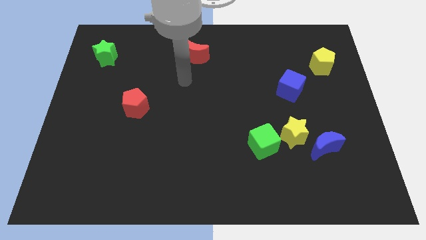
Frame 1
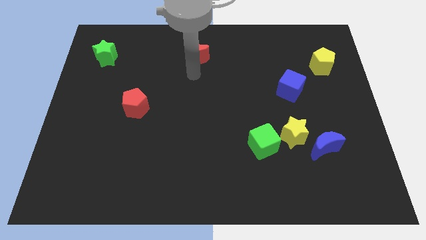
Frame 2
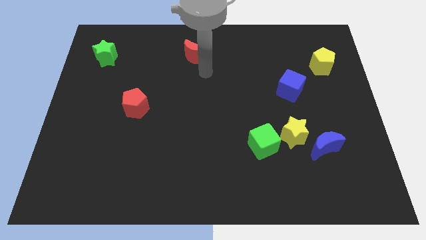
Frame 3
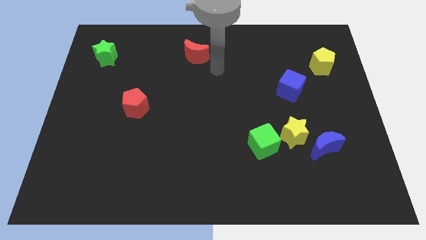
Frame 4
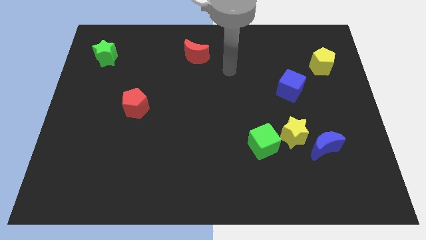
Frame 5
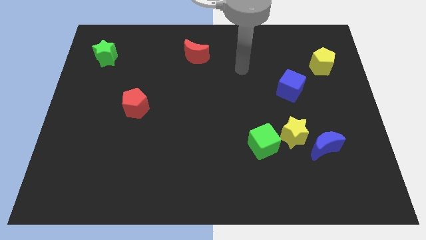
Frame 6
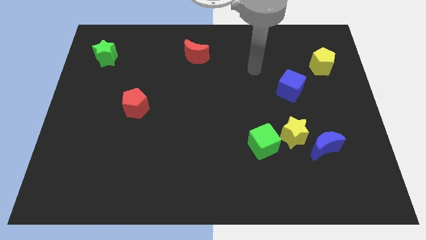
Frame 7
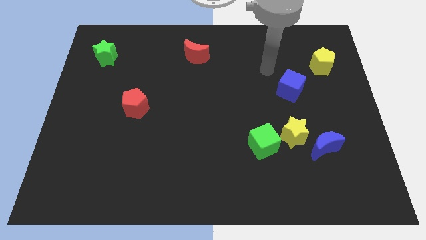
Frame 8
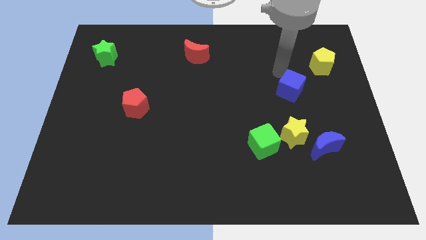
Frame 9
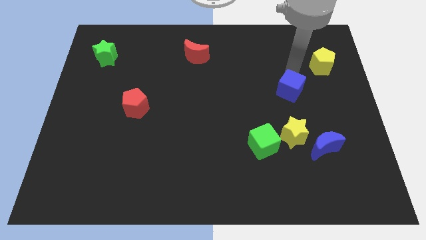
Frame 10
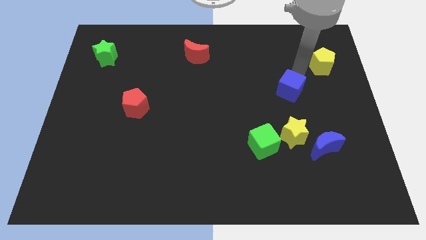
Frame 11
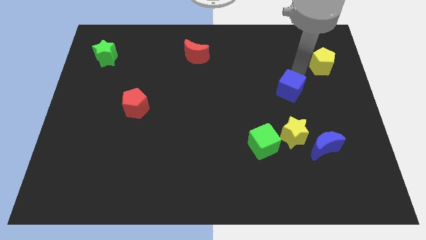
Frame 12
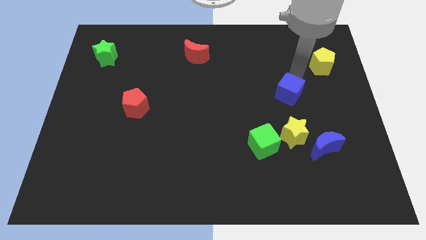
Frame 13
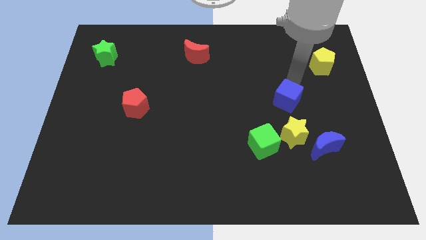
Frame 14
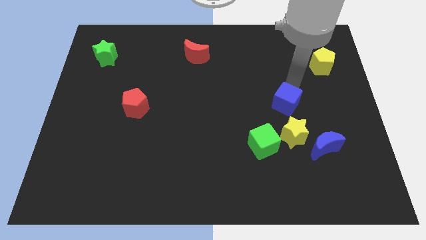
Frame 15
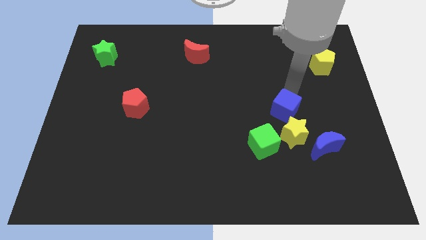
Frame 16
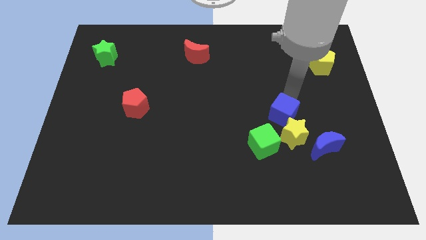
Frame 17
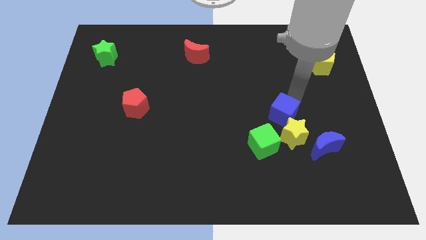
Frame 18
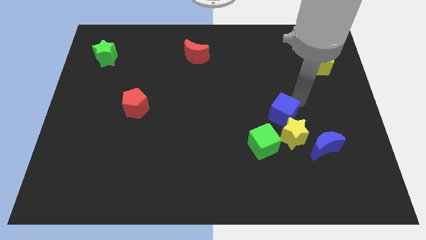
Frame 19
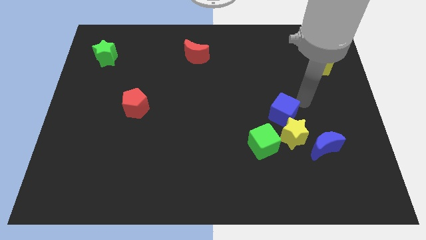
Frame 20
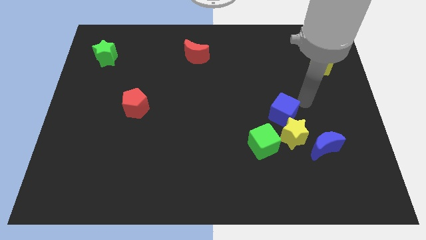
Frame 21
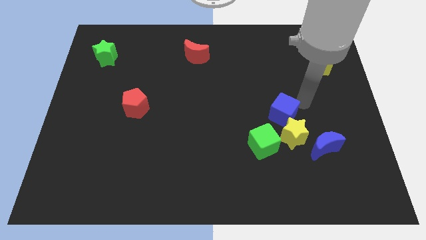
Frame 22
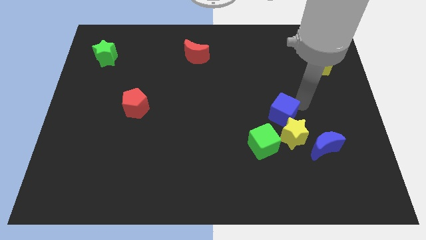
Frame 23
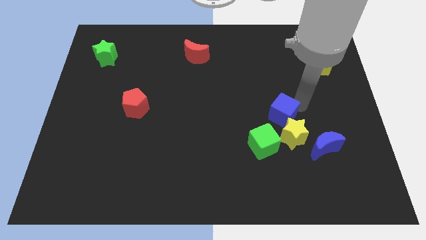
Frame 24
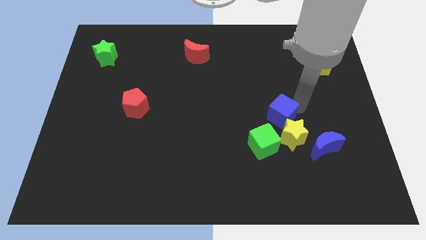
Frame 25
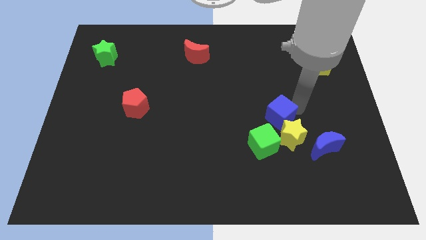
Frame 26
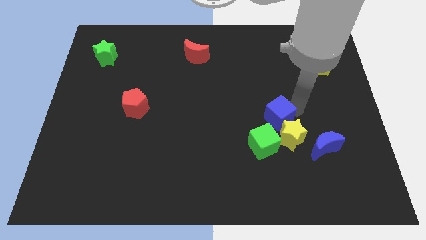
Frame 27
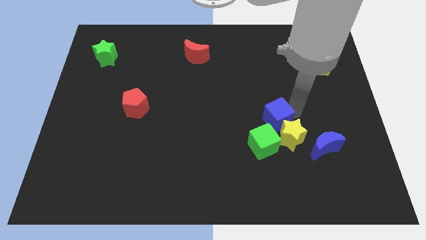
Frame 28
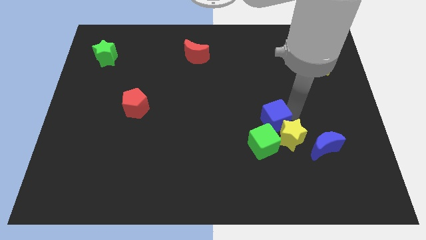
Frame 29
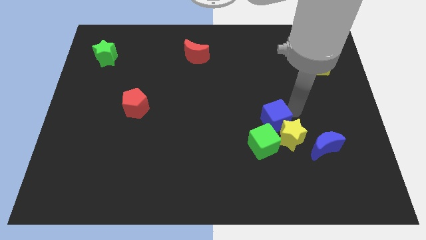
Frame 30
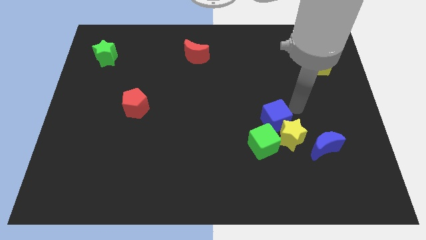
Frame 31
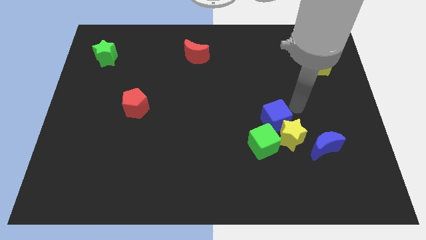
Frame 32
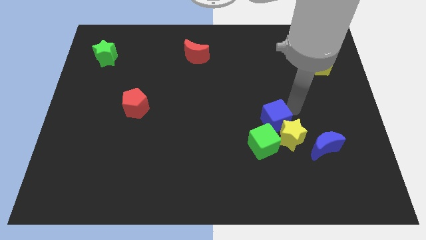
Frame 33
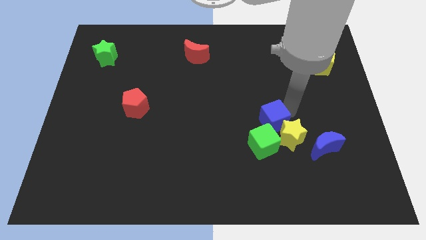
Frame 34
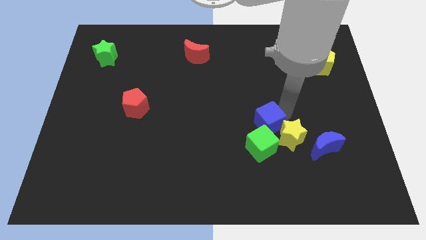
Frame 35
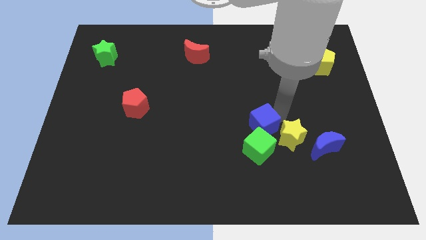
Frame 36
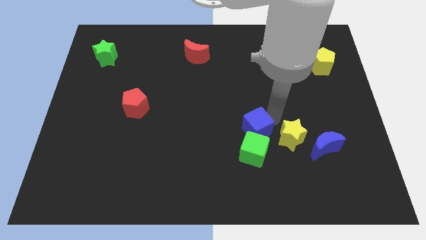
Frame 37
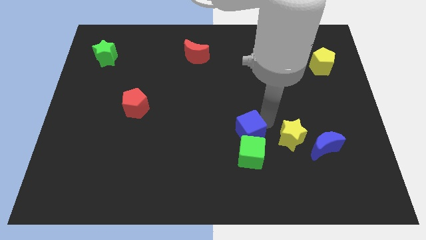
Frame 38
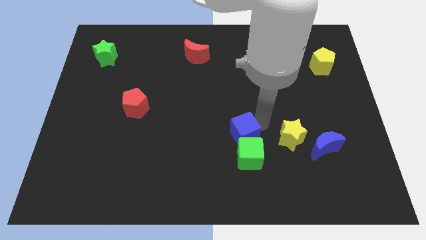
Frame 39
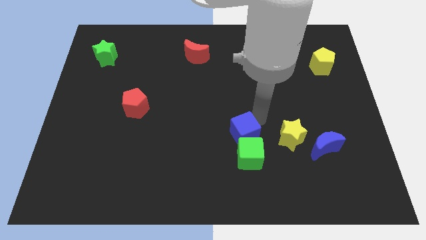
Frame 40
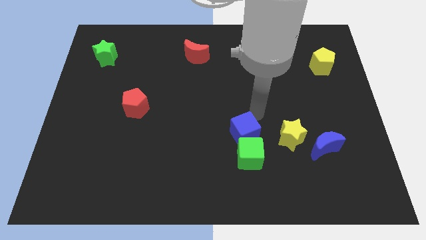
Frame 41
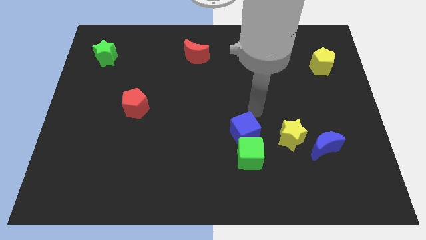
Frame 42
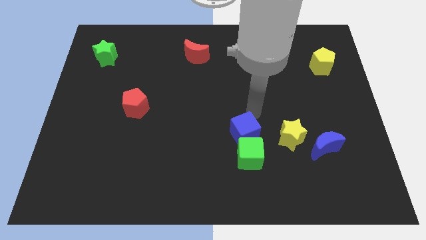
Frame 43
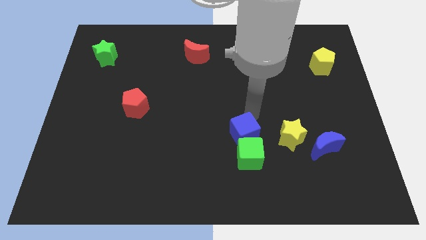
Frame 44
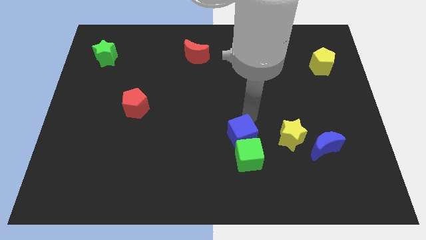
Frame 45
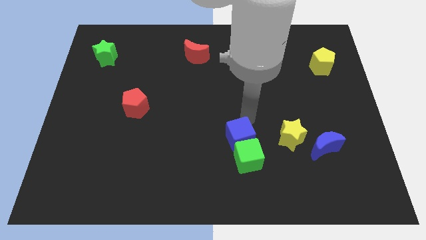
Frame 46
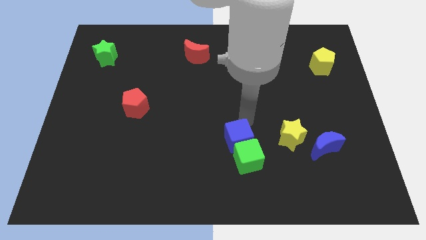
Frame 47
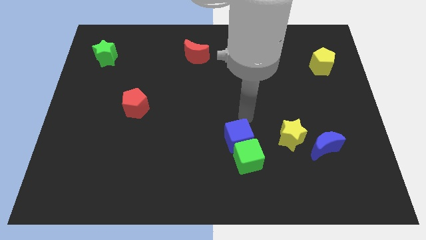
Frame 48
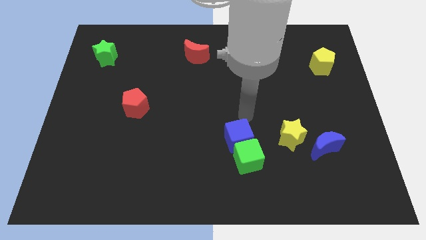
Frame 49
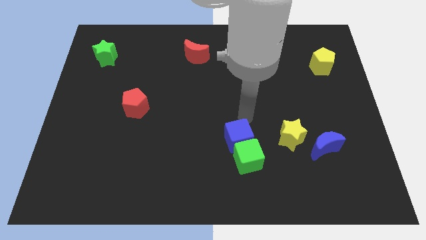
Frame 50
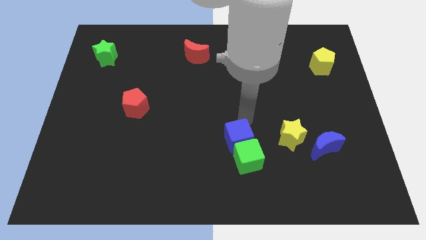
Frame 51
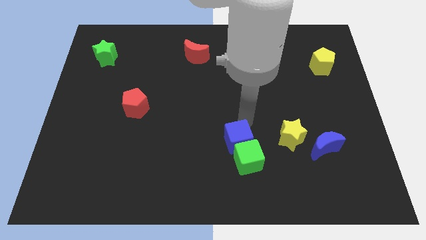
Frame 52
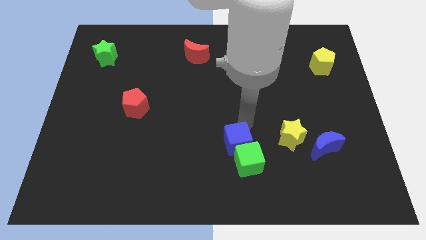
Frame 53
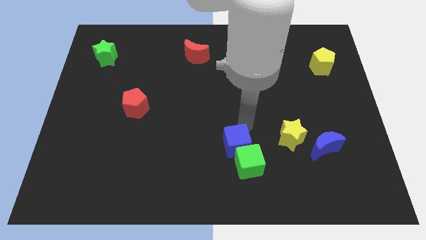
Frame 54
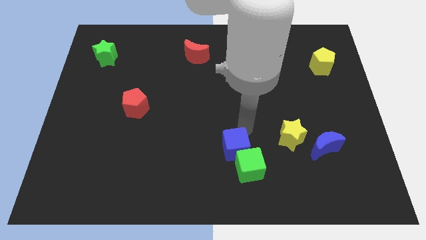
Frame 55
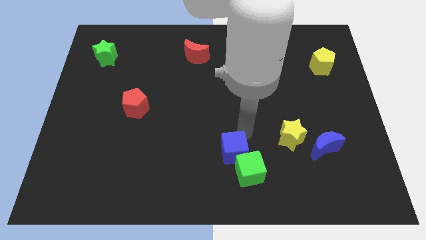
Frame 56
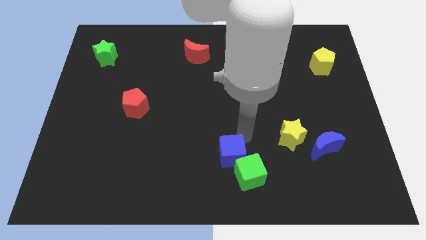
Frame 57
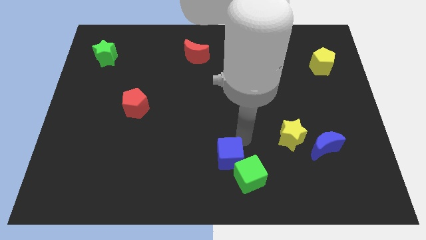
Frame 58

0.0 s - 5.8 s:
slide the blue cube to the bottom side

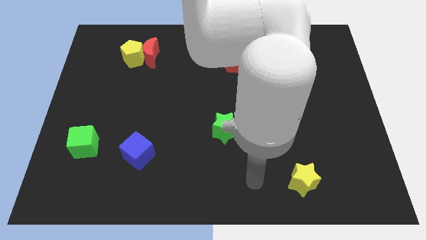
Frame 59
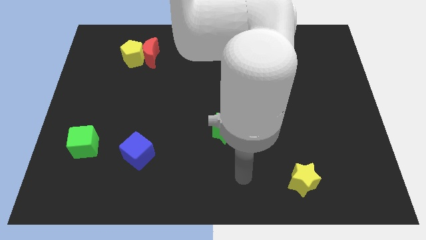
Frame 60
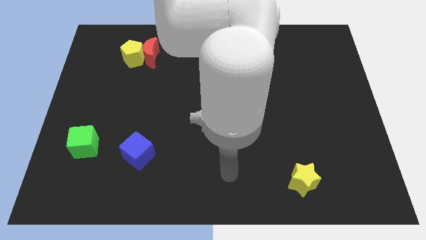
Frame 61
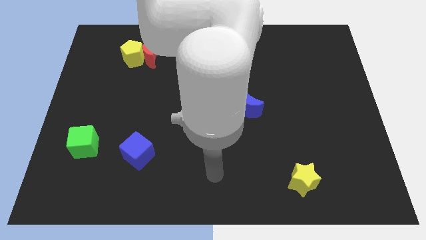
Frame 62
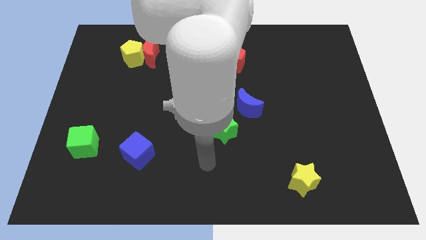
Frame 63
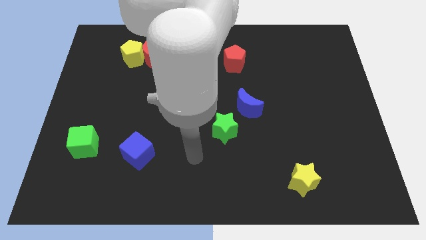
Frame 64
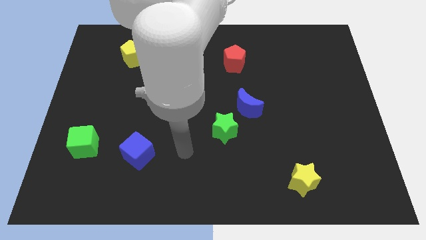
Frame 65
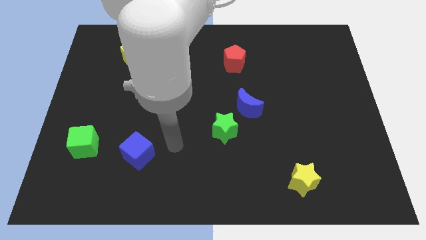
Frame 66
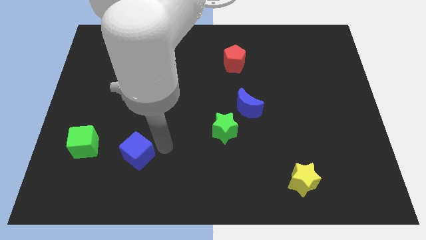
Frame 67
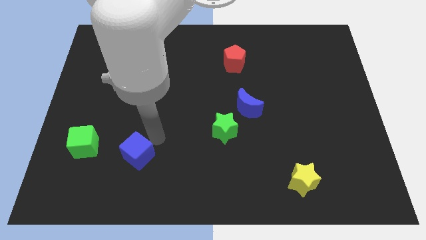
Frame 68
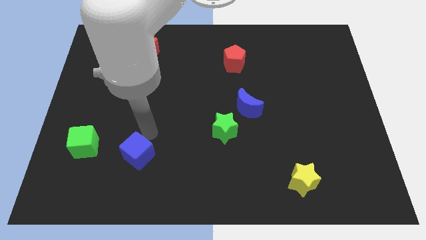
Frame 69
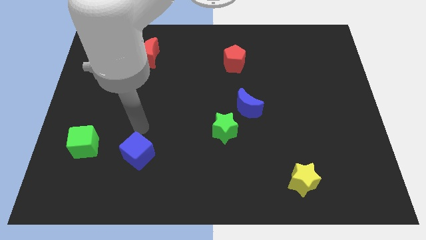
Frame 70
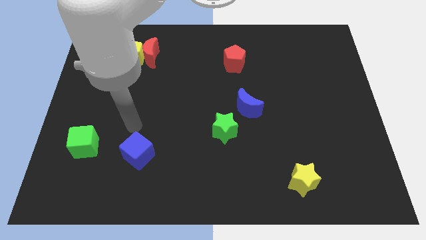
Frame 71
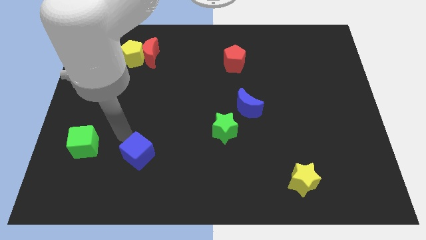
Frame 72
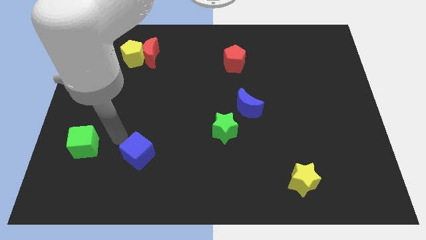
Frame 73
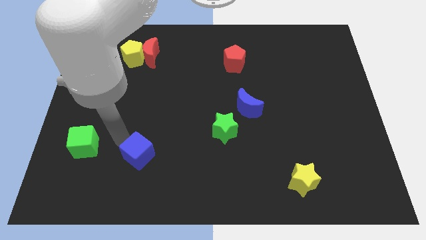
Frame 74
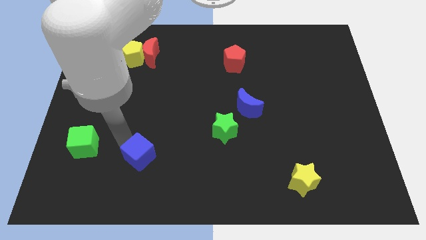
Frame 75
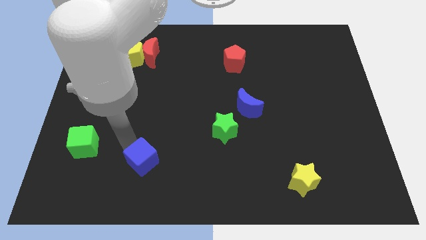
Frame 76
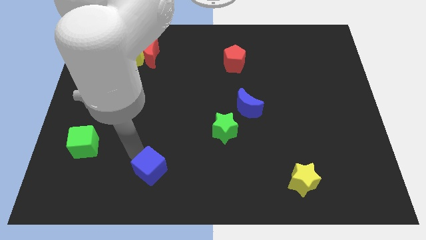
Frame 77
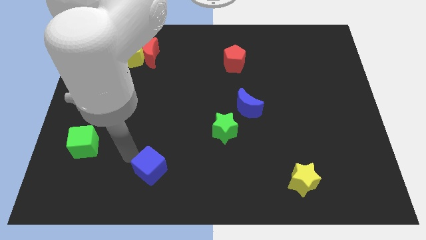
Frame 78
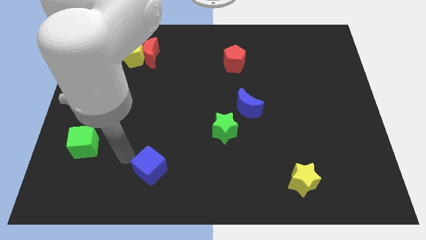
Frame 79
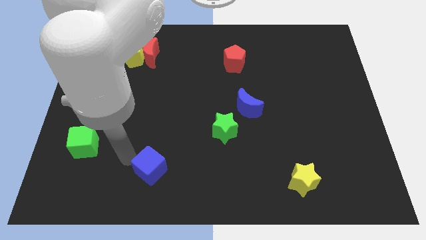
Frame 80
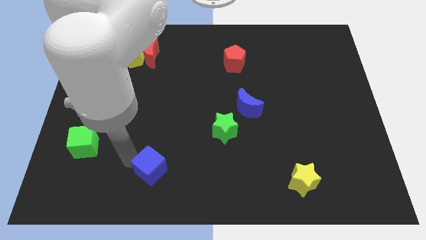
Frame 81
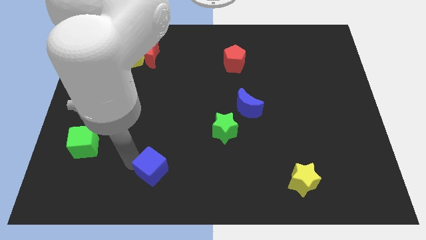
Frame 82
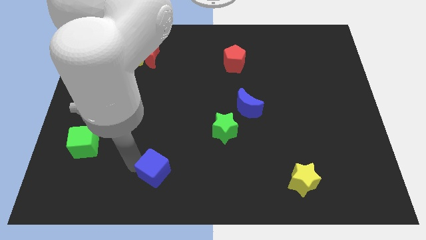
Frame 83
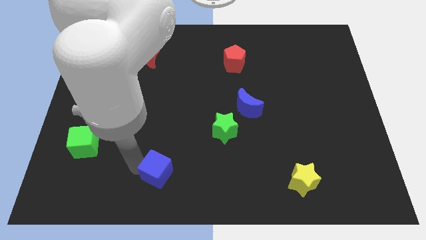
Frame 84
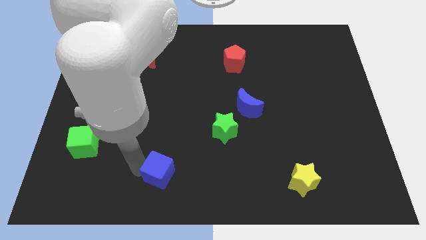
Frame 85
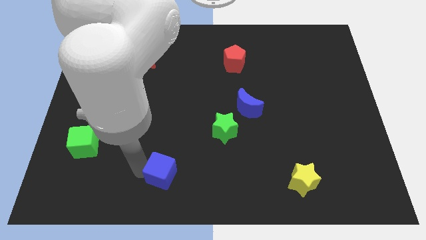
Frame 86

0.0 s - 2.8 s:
push the blue cube to the bottom
